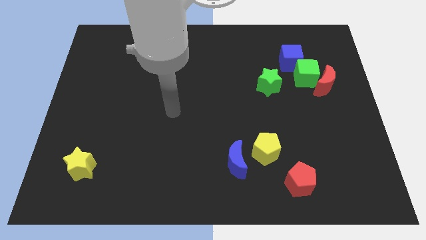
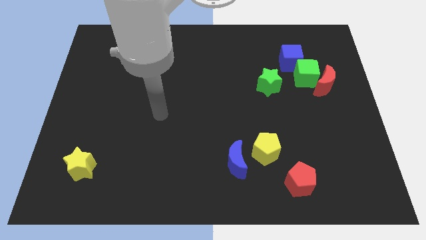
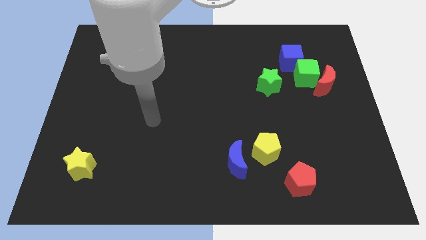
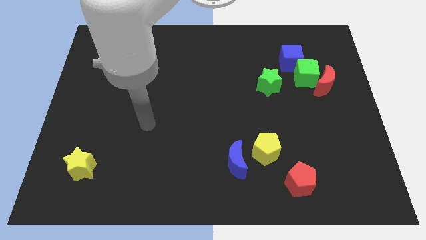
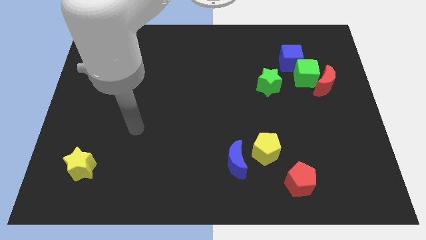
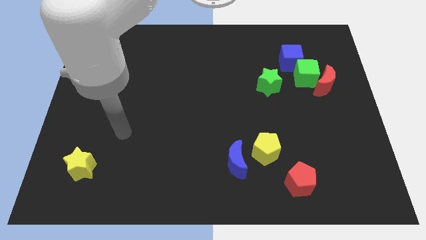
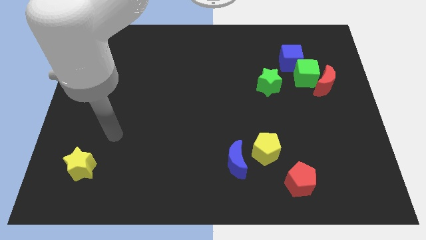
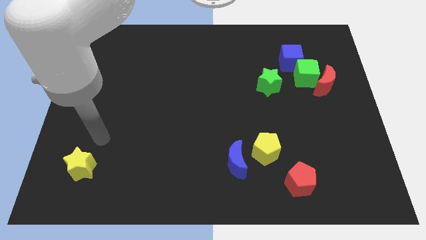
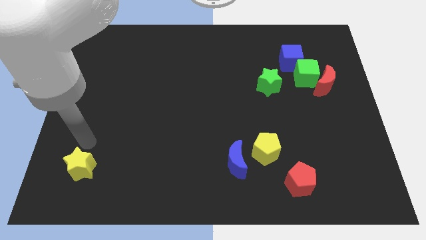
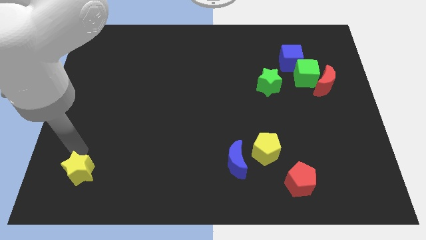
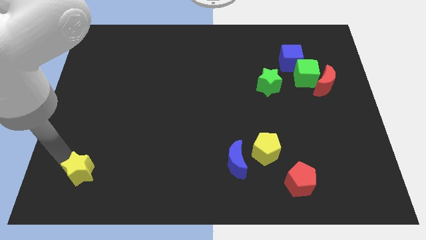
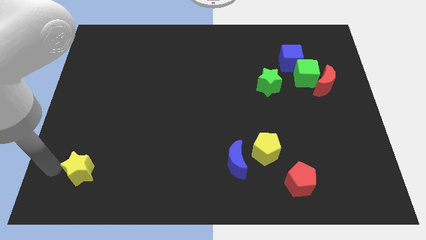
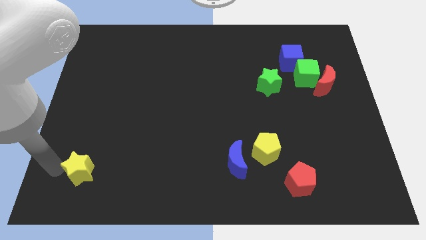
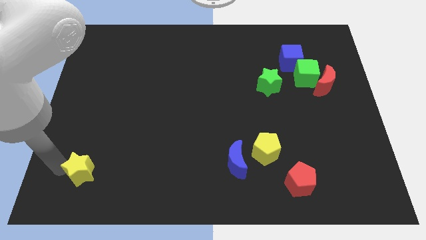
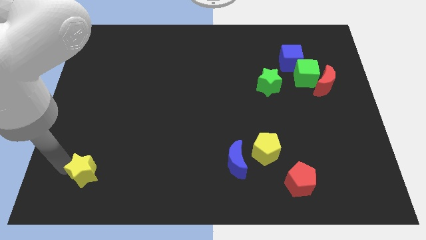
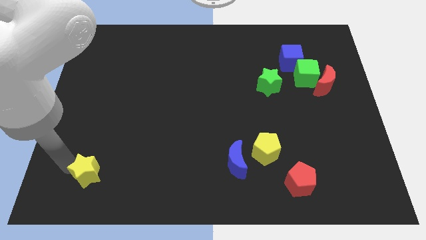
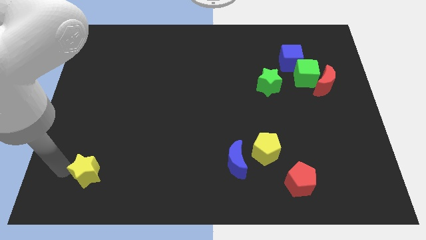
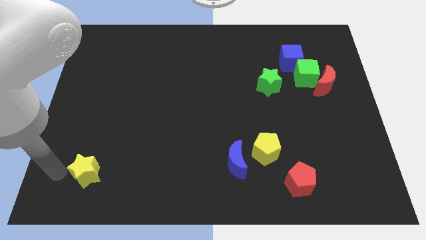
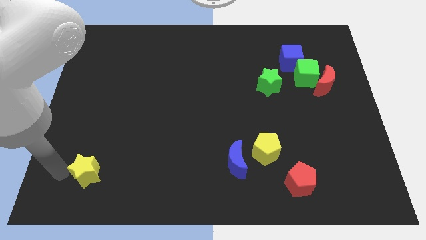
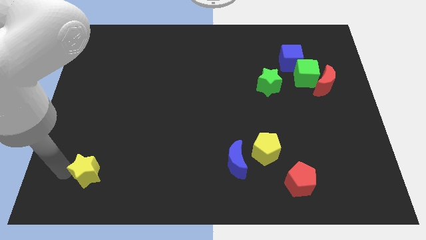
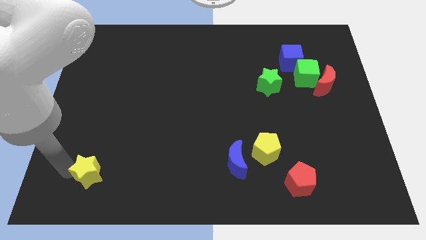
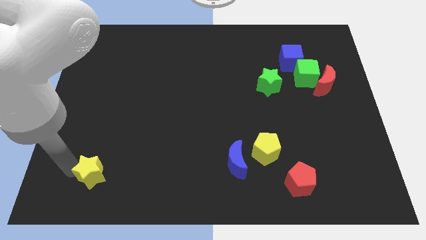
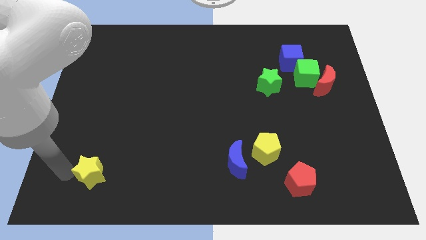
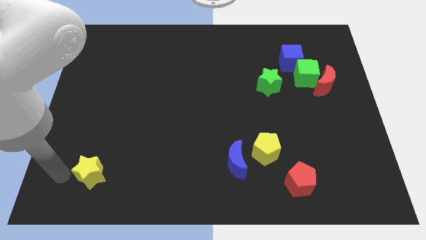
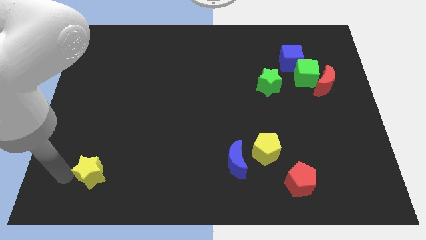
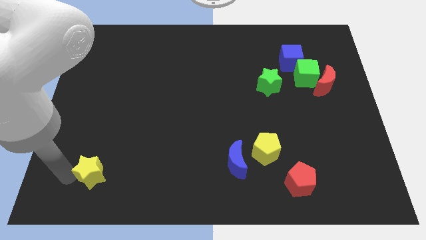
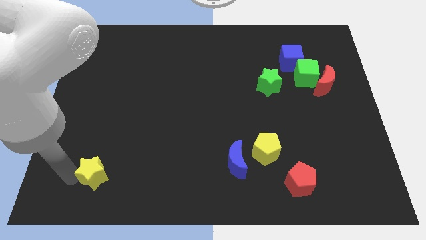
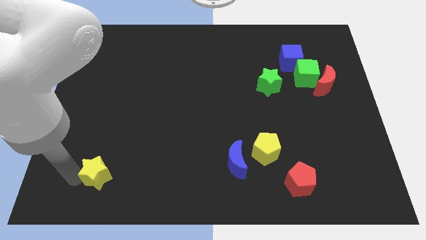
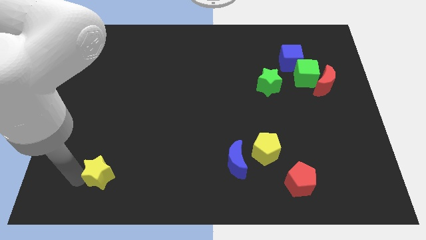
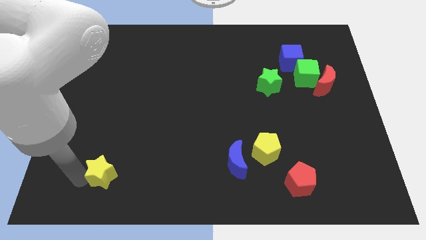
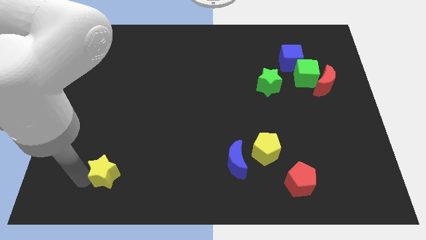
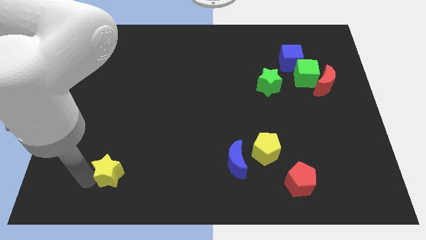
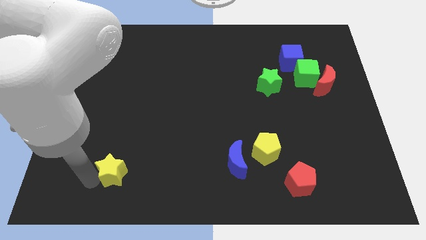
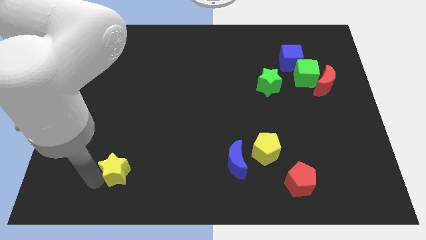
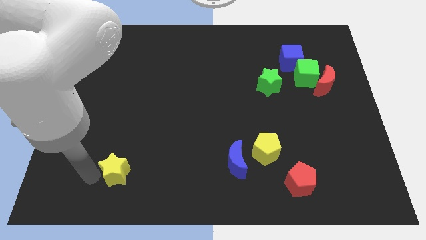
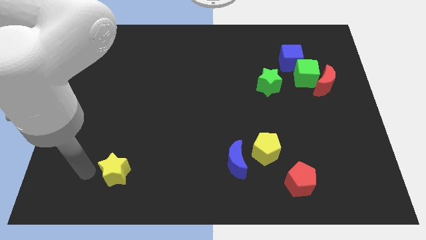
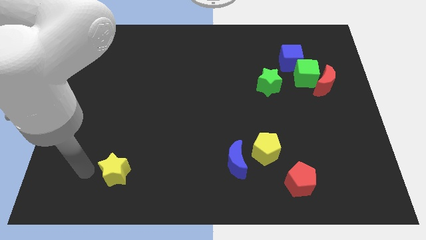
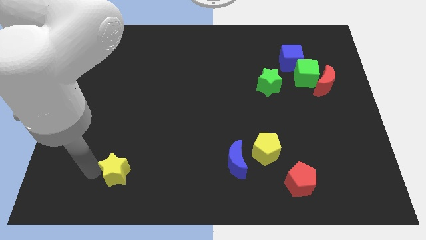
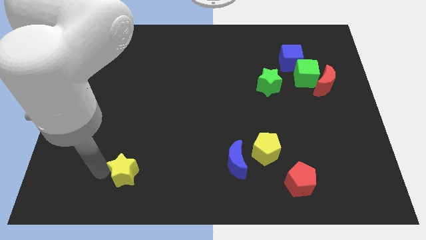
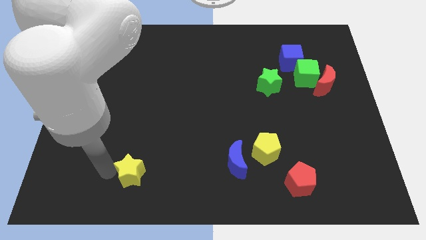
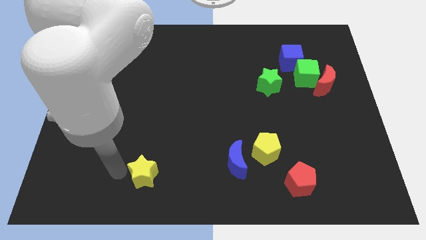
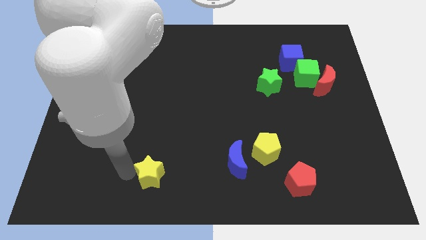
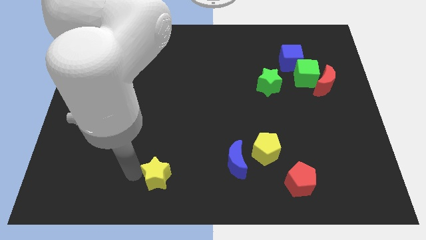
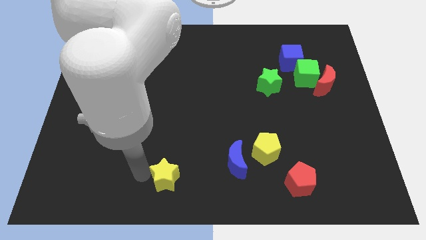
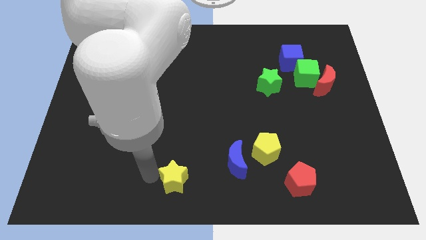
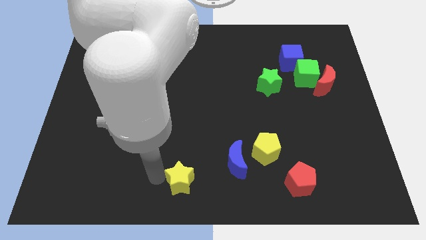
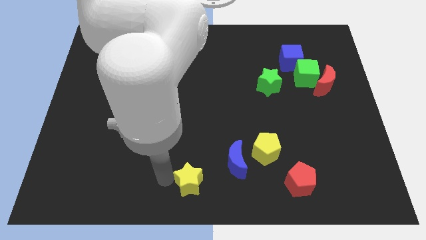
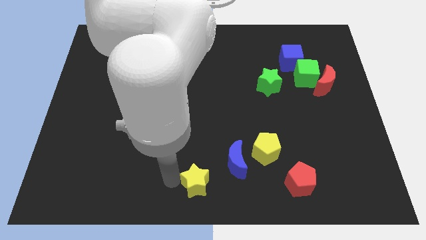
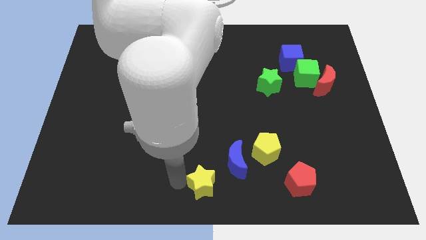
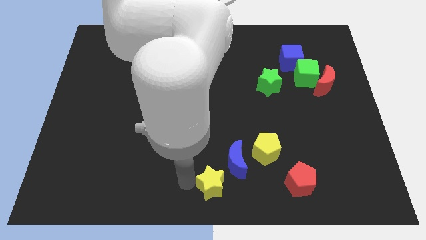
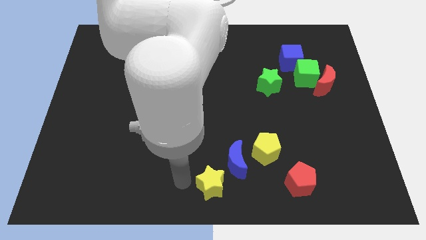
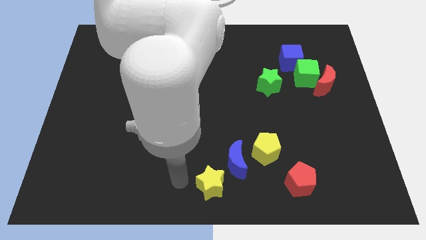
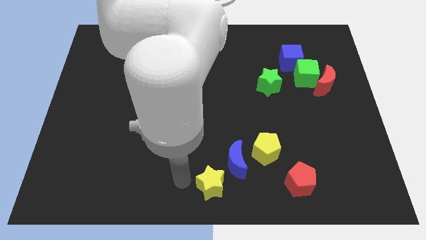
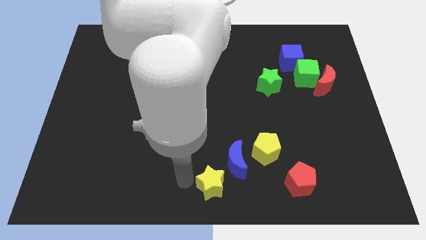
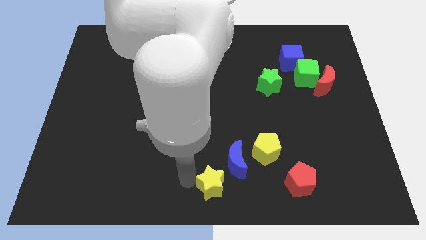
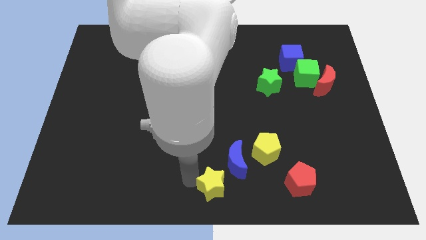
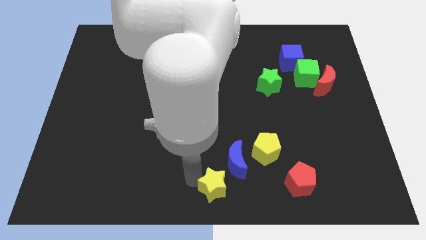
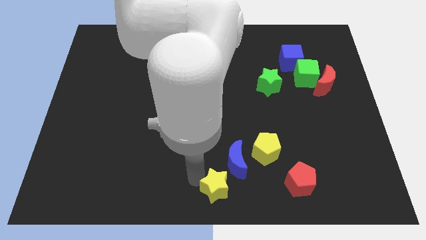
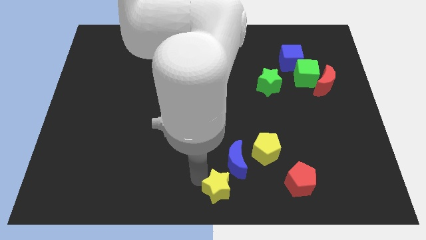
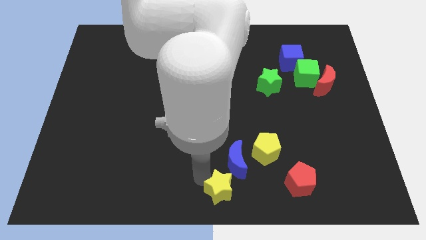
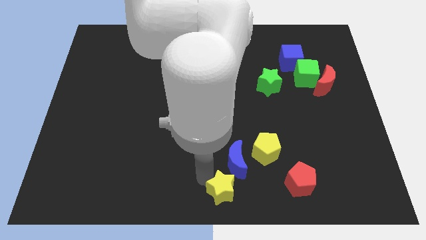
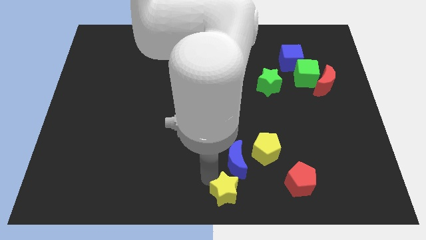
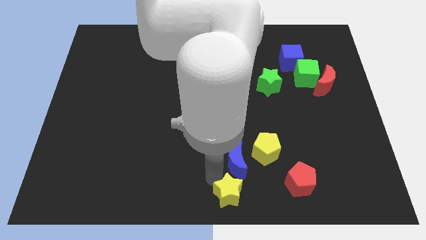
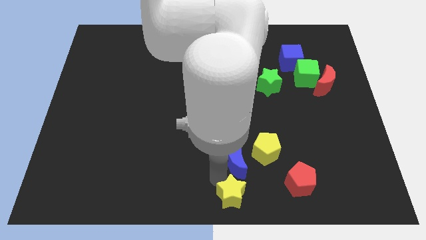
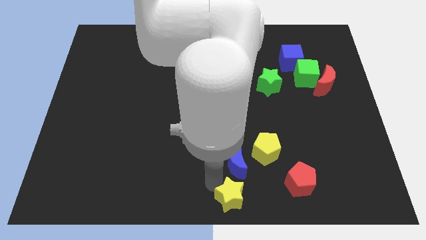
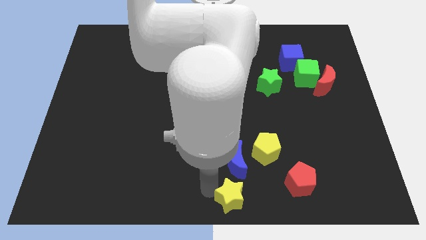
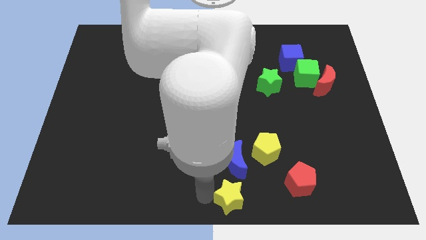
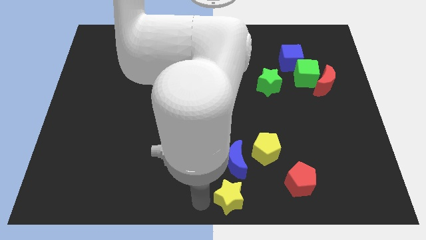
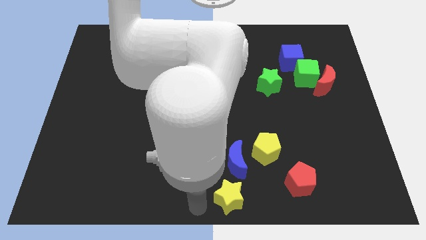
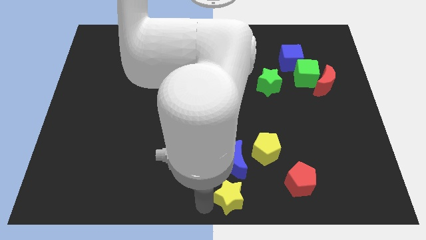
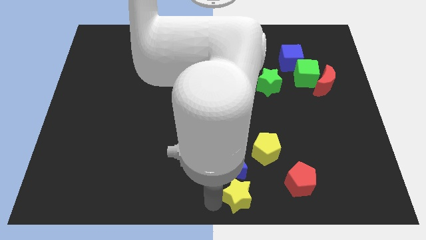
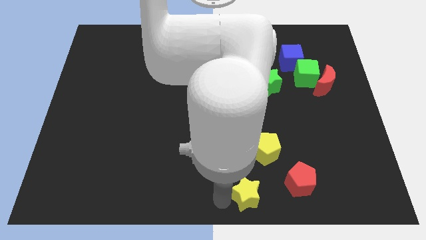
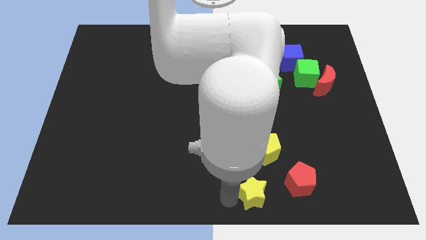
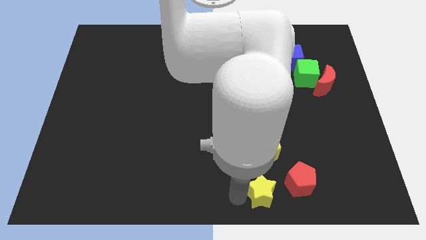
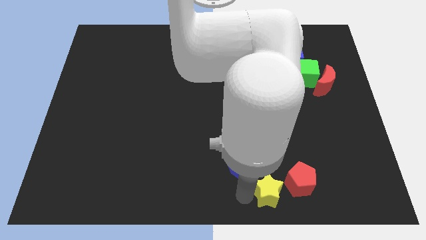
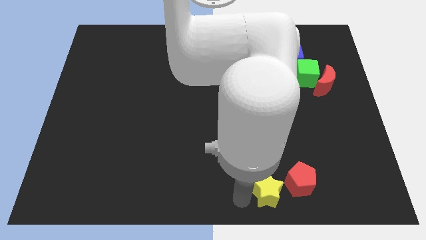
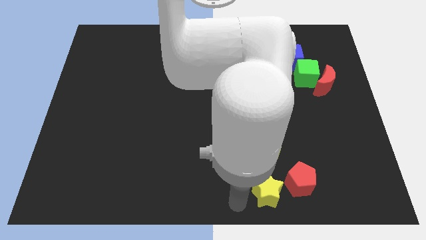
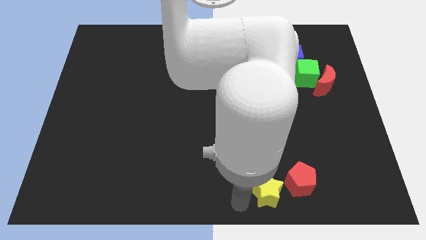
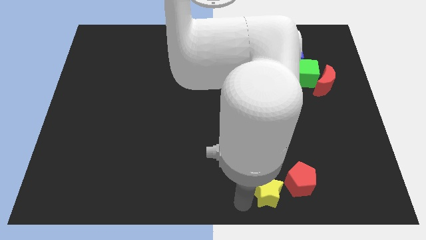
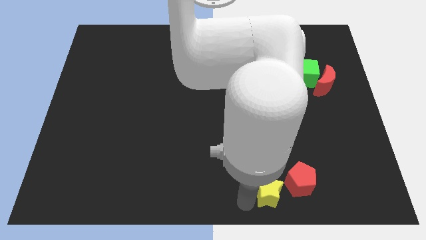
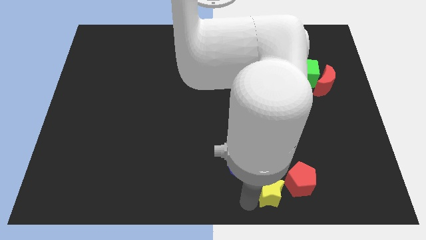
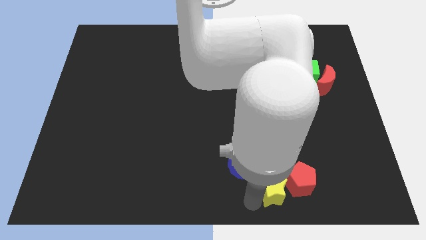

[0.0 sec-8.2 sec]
move the yellow star close to the red pentagon
